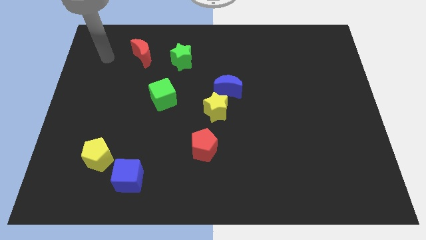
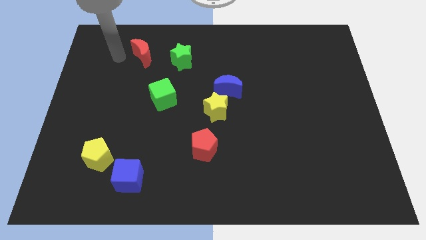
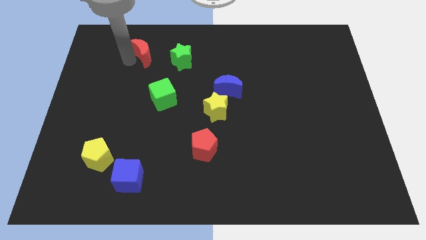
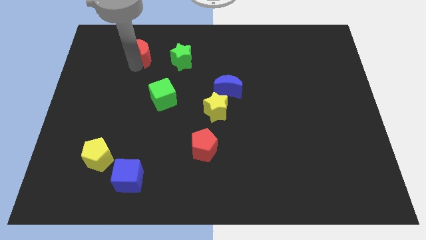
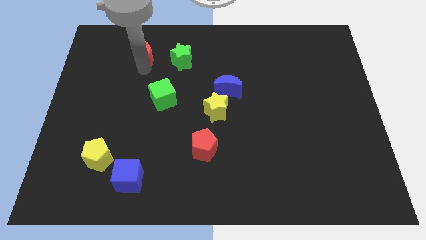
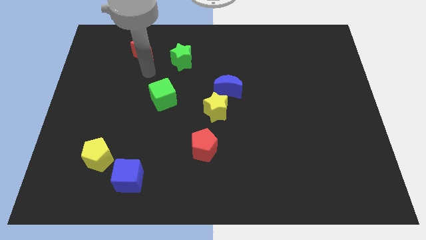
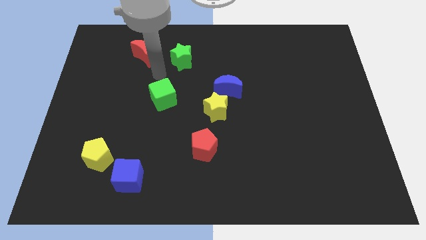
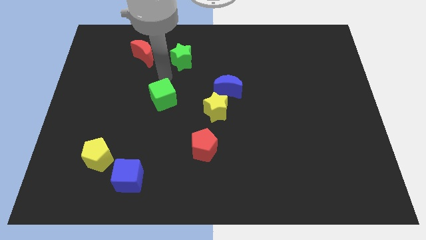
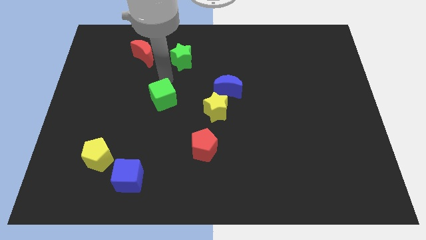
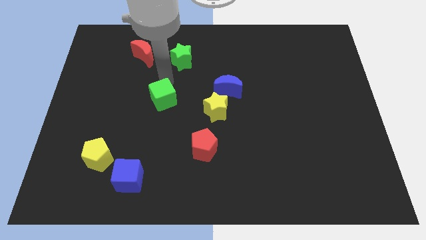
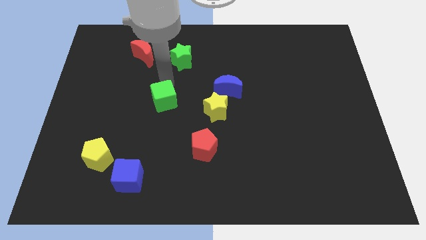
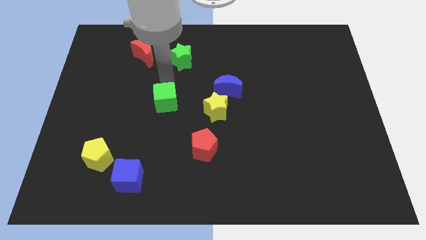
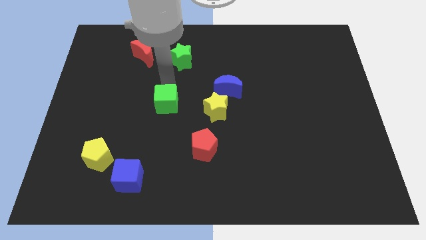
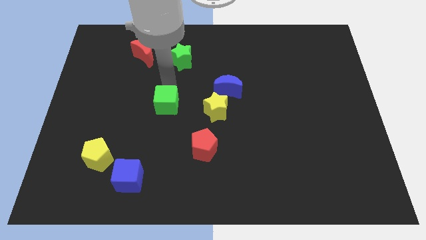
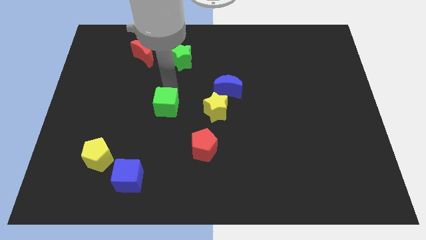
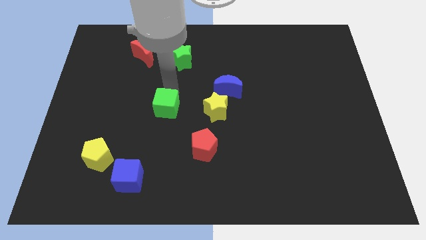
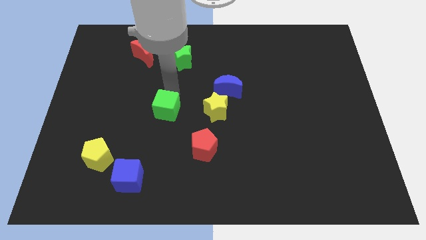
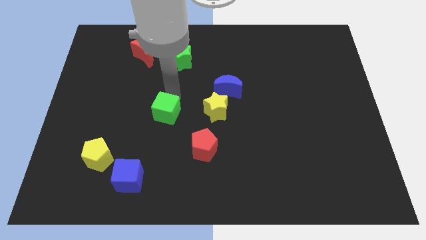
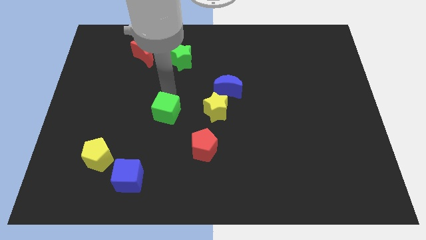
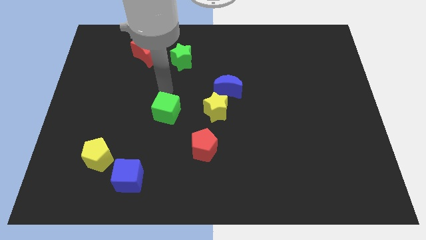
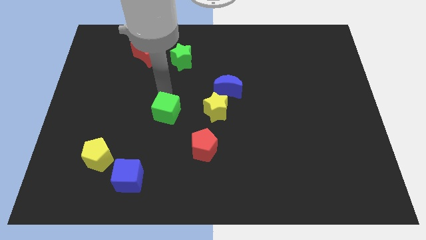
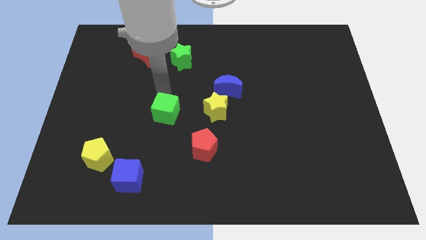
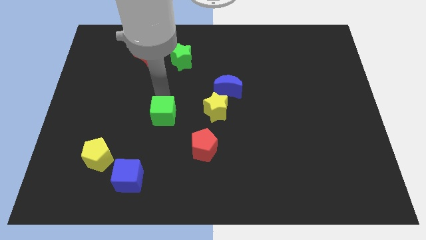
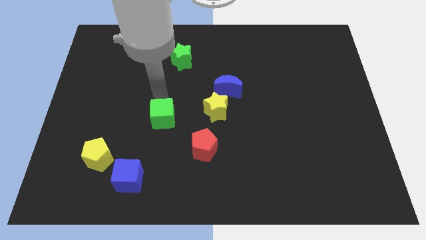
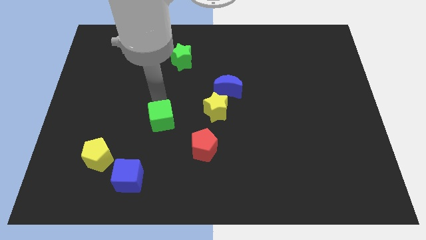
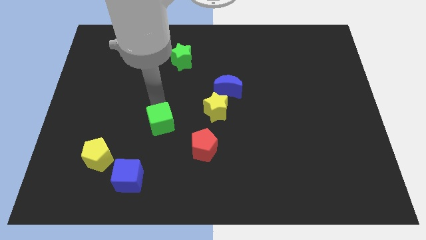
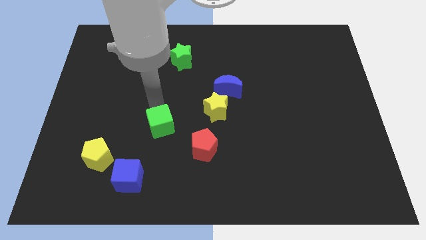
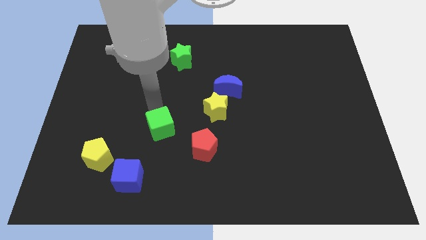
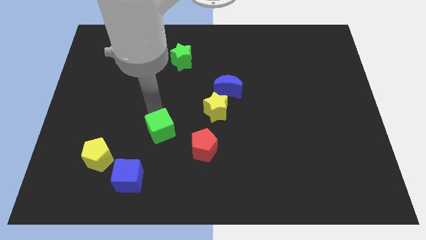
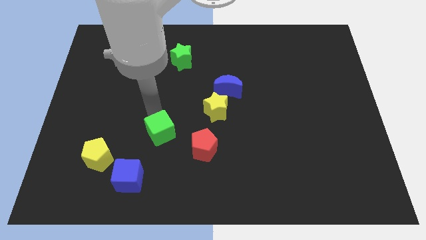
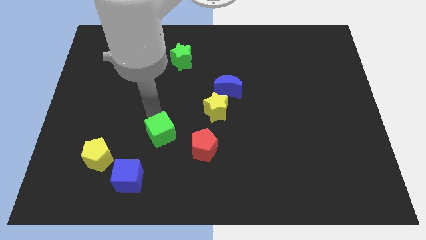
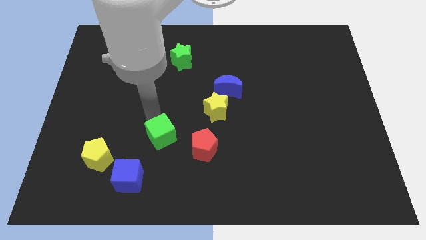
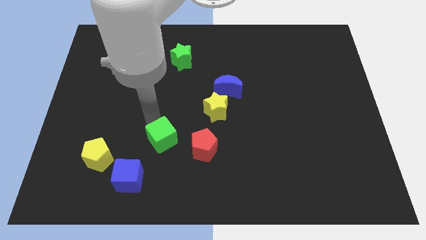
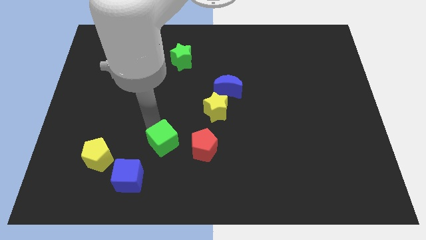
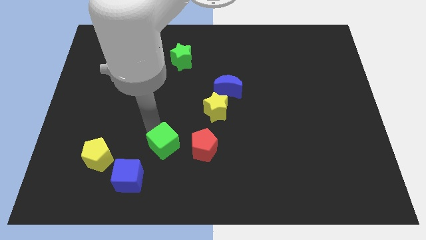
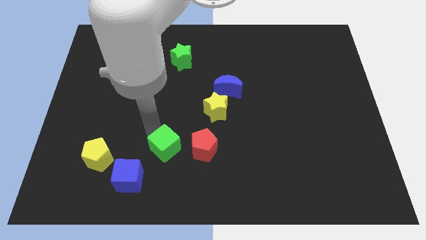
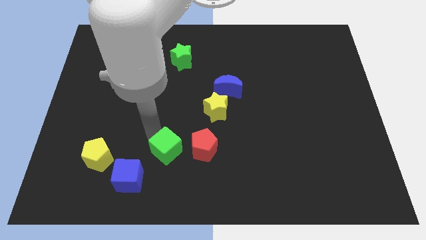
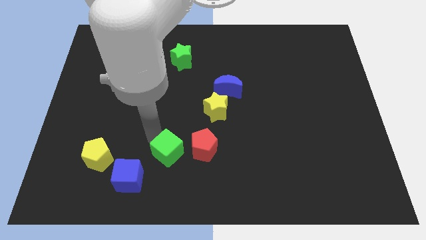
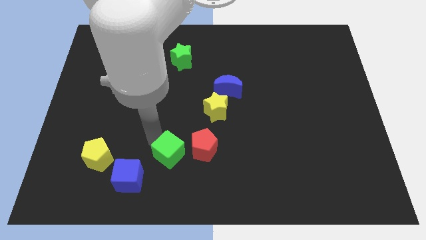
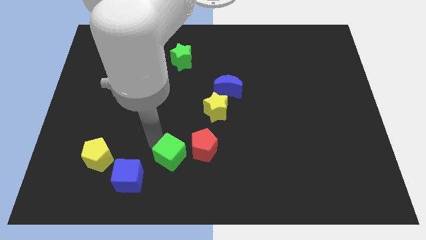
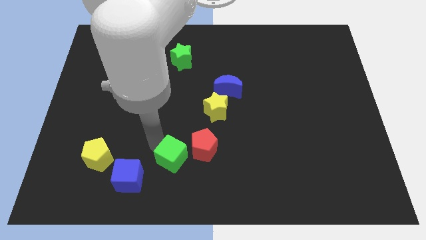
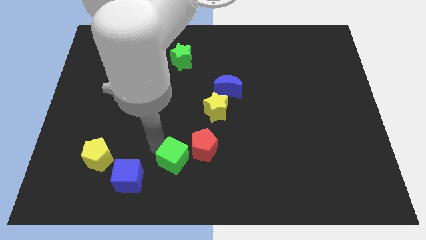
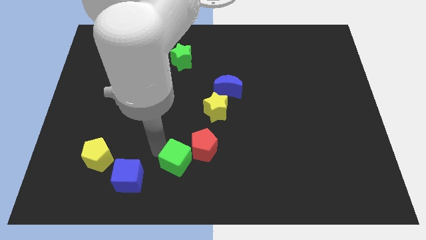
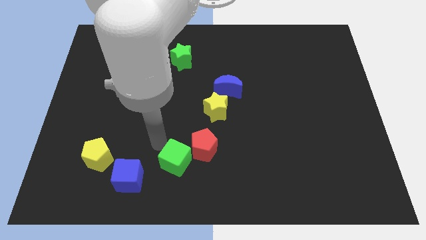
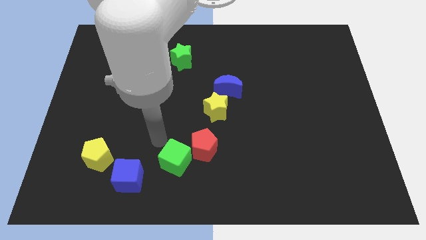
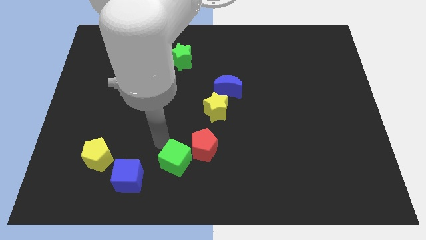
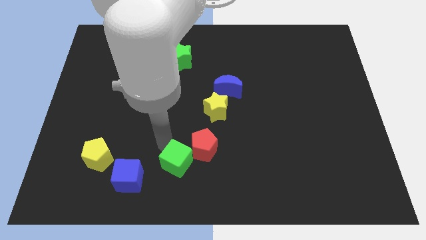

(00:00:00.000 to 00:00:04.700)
slide the green cube to the bottom side

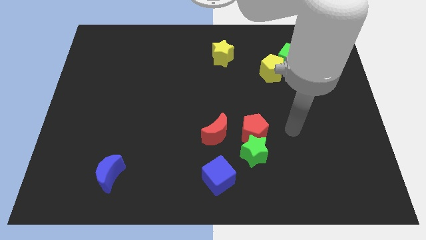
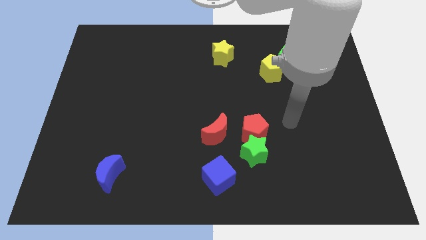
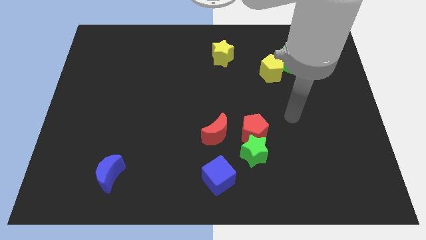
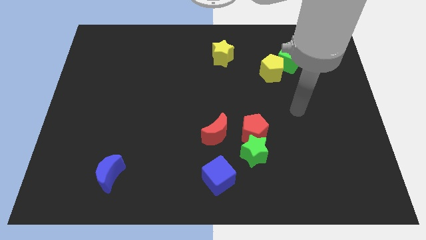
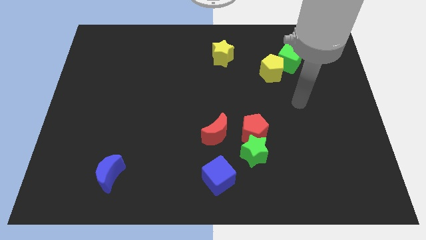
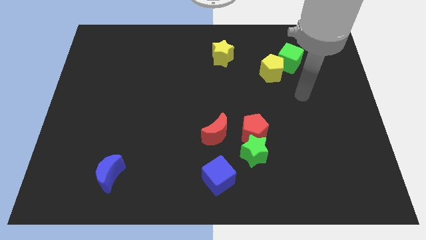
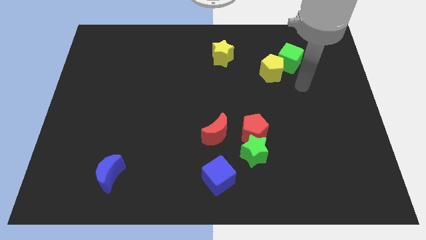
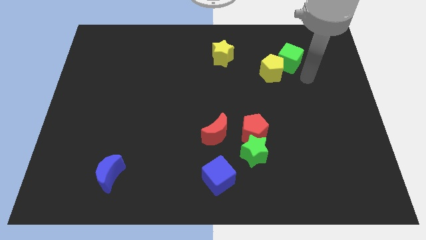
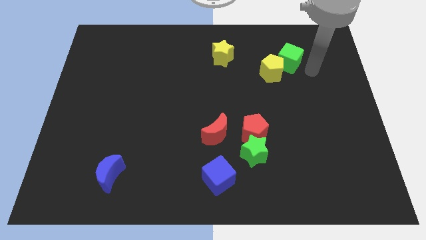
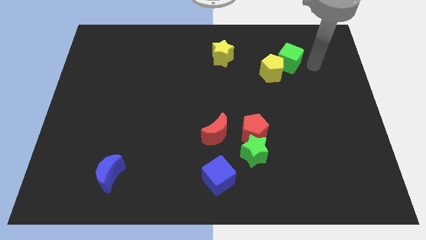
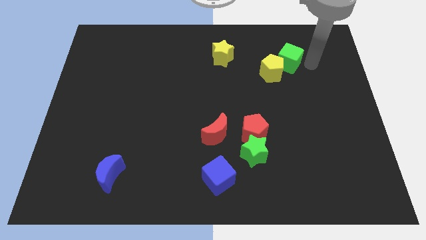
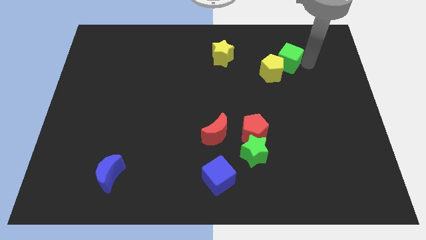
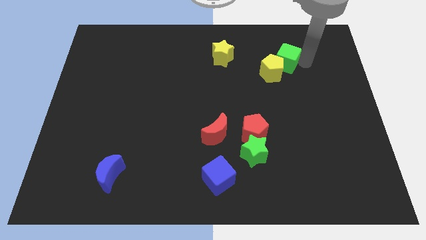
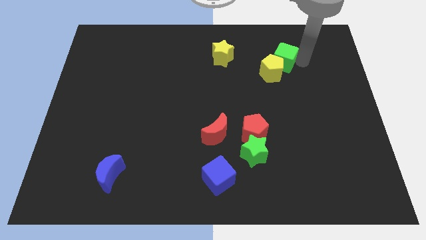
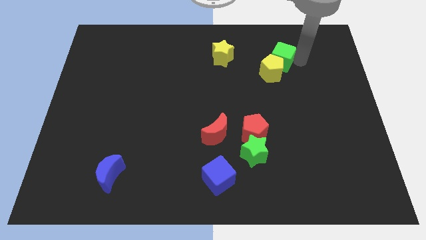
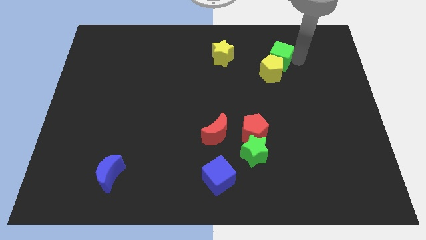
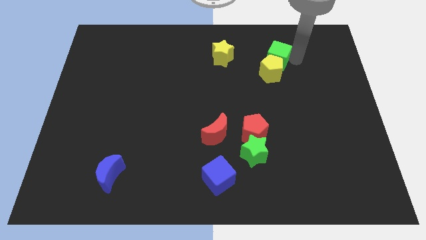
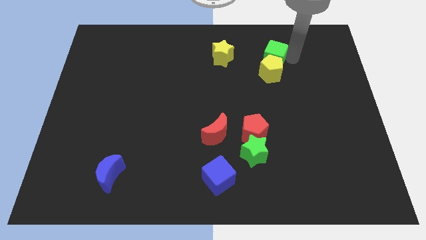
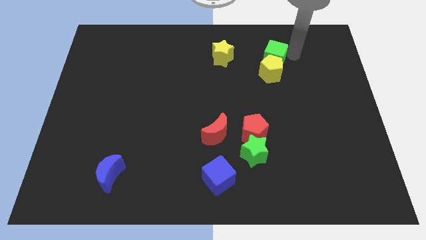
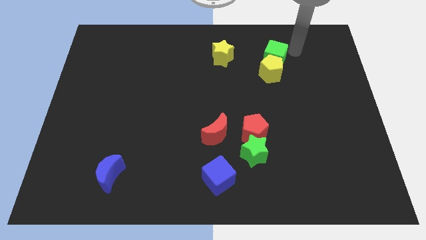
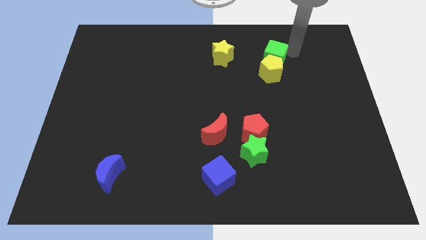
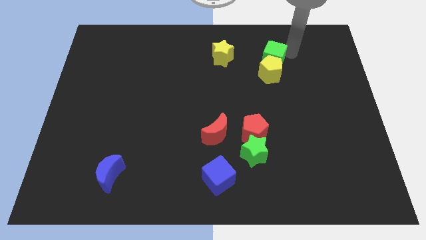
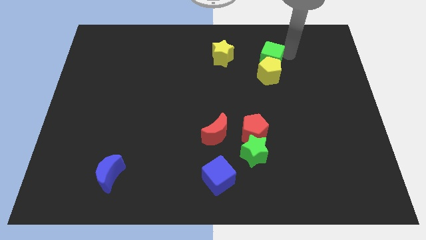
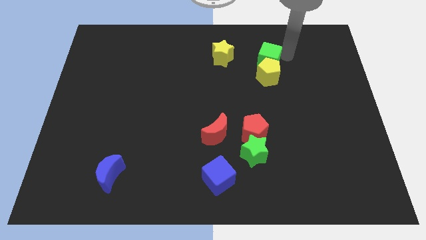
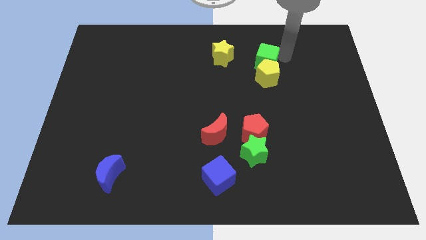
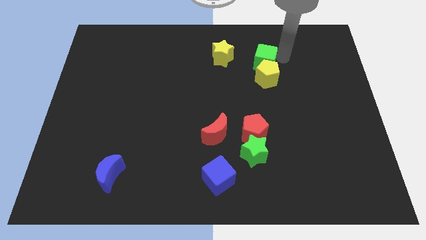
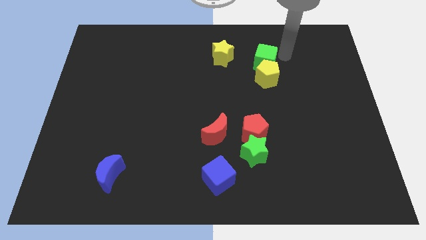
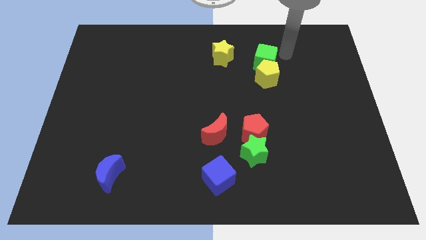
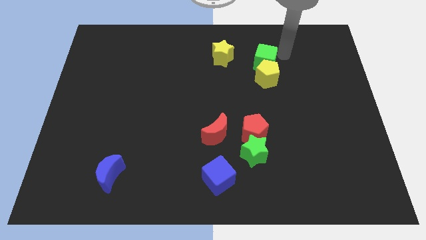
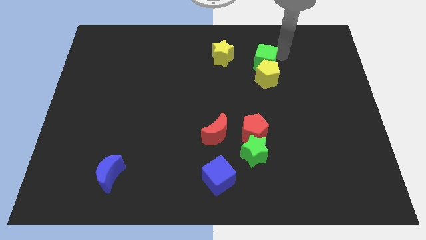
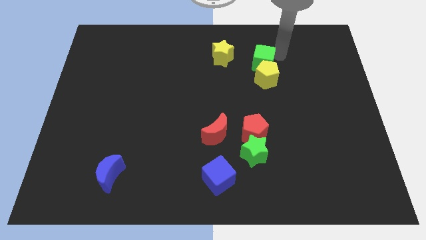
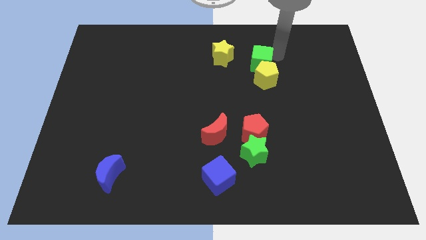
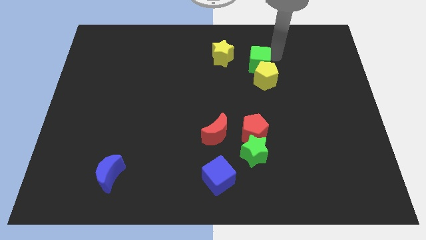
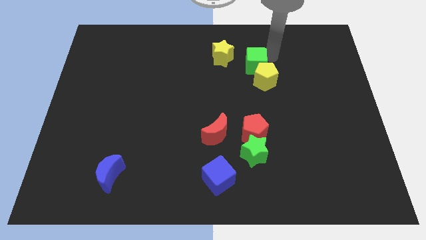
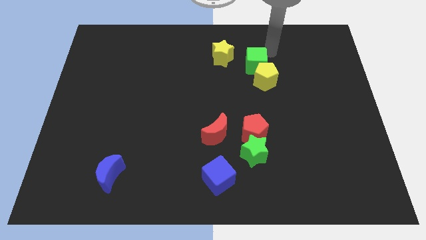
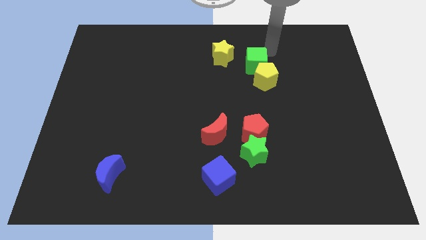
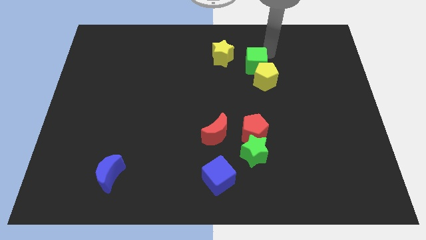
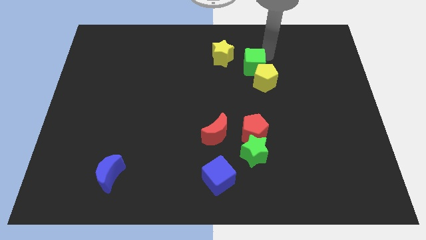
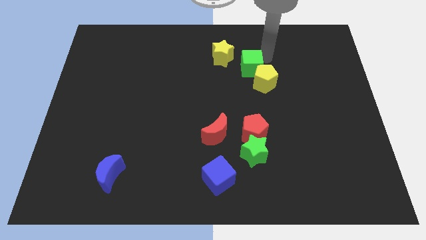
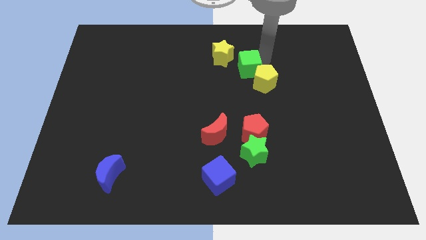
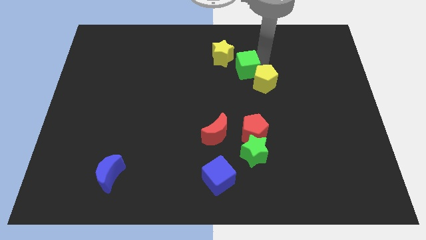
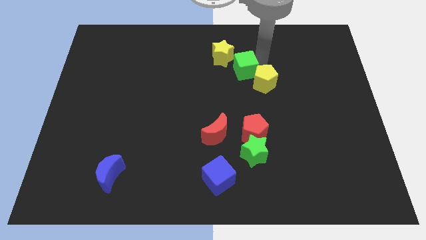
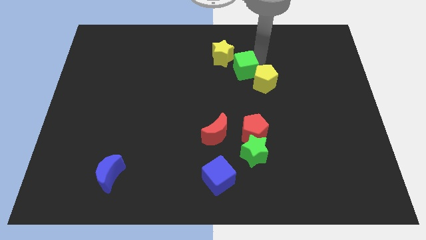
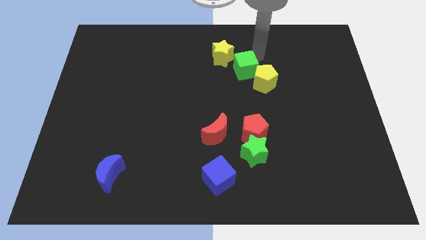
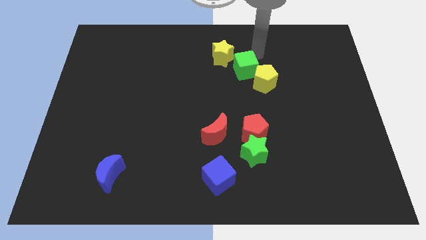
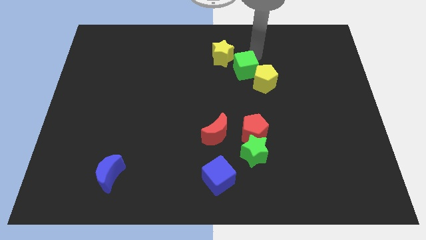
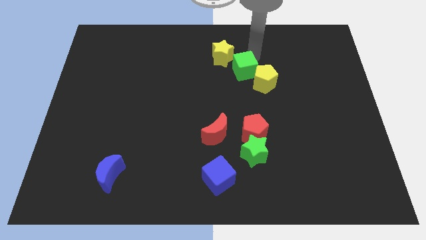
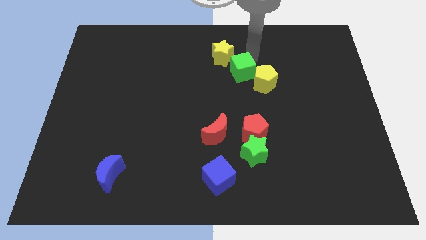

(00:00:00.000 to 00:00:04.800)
put the green cube to the middle
